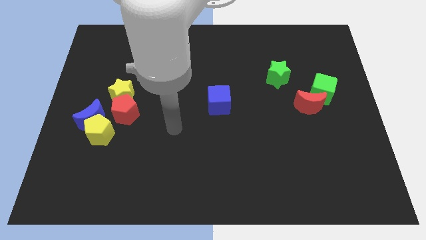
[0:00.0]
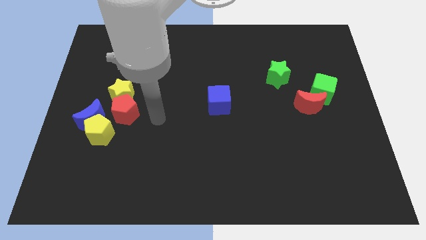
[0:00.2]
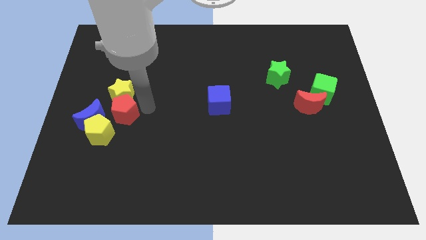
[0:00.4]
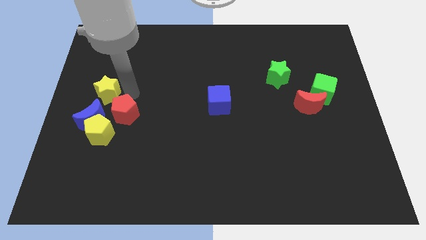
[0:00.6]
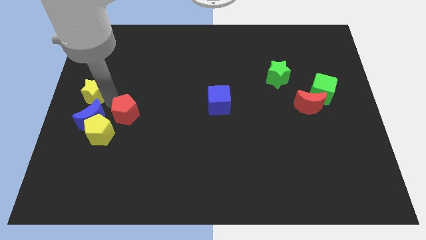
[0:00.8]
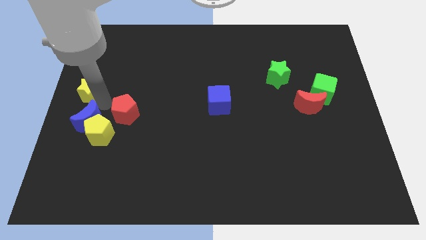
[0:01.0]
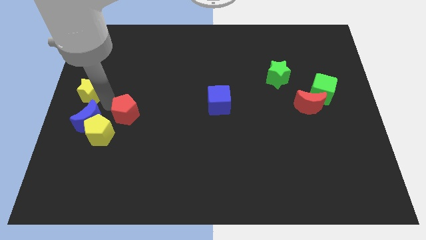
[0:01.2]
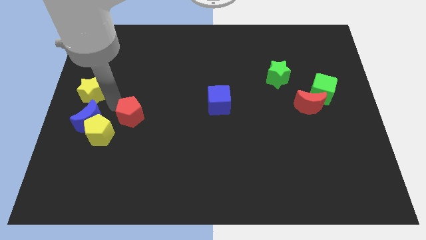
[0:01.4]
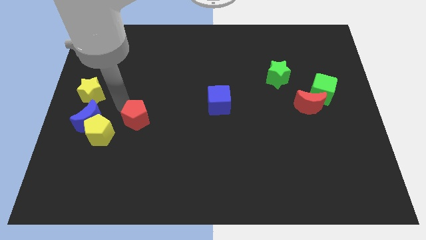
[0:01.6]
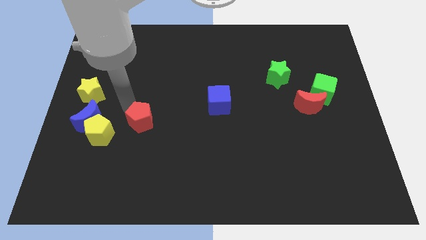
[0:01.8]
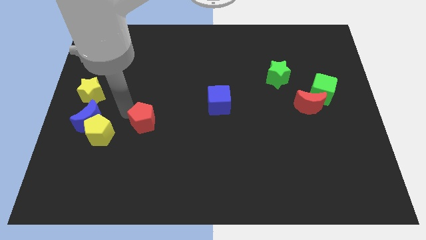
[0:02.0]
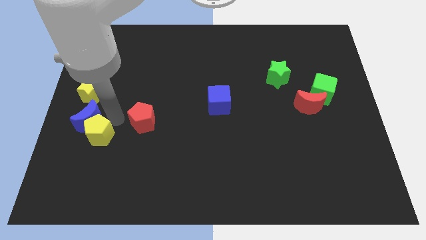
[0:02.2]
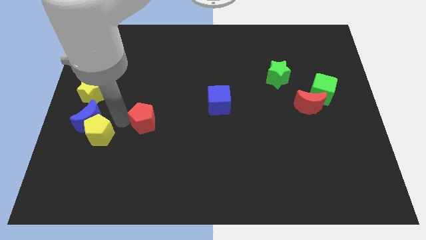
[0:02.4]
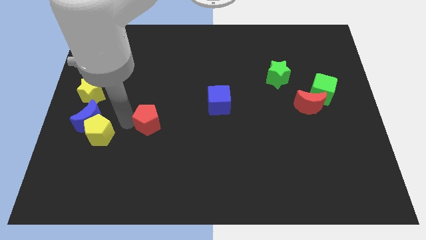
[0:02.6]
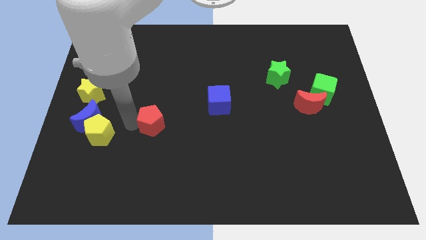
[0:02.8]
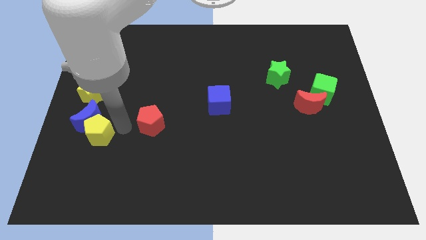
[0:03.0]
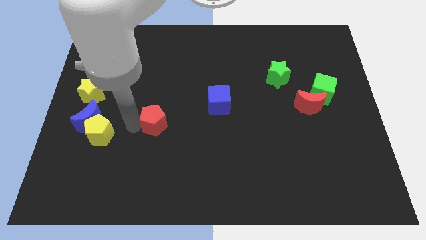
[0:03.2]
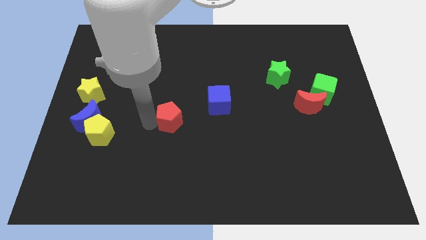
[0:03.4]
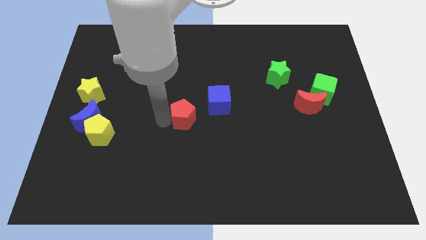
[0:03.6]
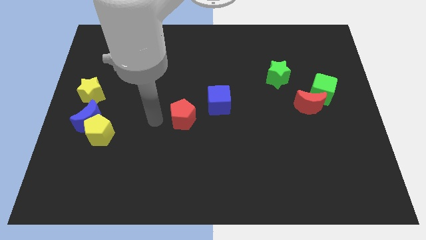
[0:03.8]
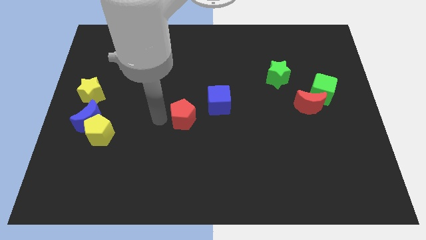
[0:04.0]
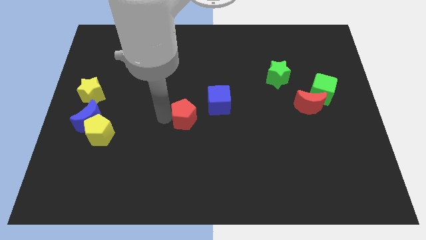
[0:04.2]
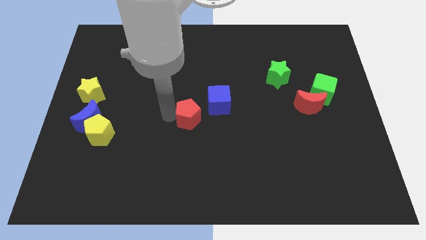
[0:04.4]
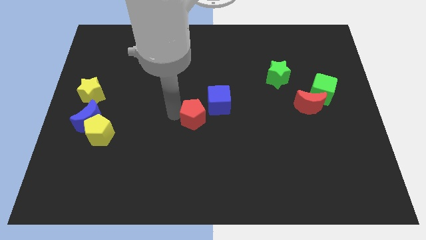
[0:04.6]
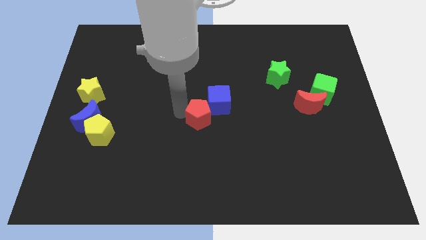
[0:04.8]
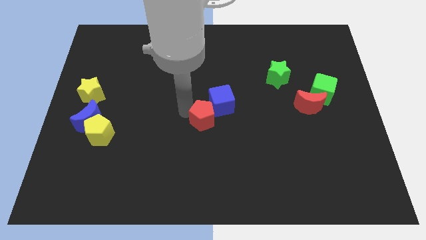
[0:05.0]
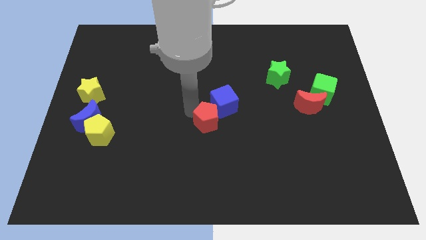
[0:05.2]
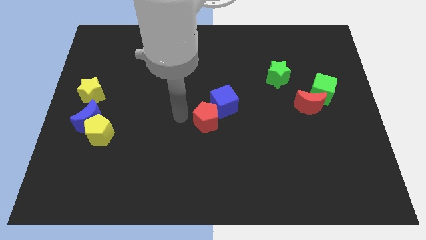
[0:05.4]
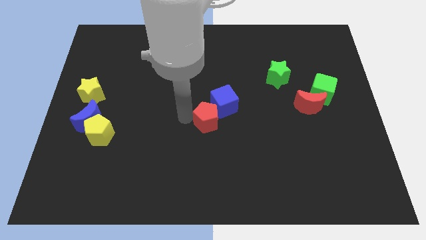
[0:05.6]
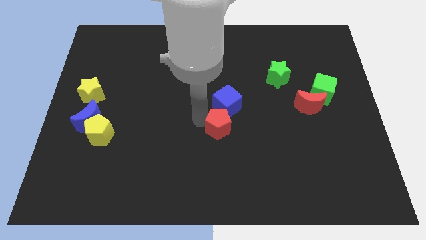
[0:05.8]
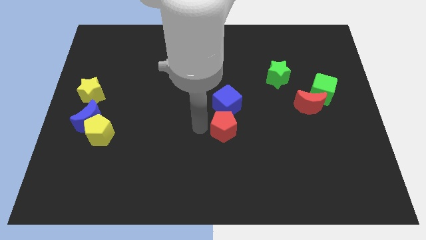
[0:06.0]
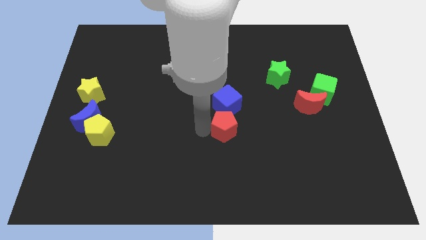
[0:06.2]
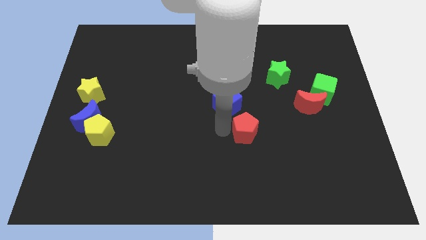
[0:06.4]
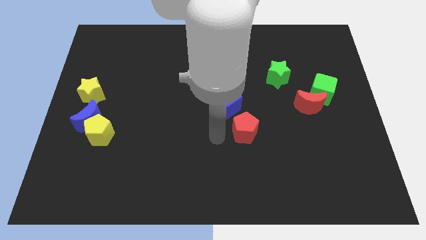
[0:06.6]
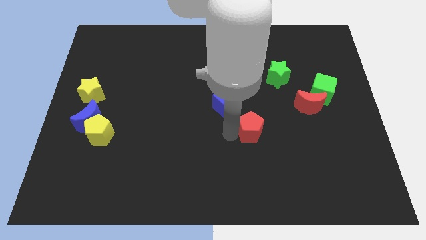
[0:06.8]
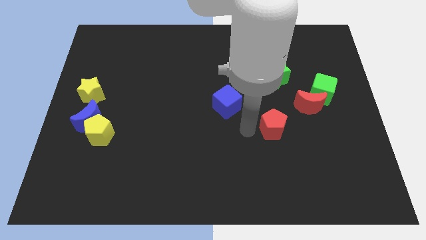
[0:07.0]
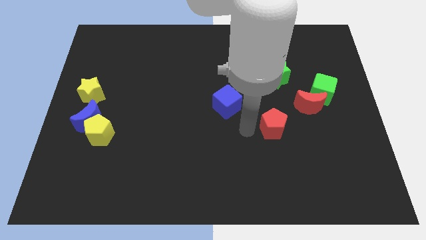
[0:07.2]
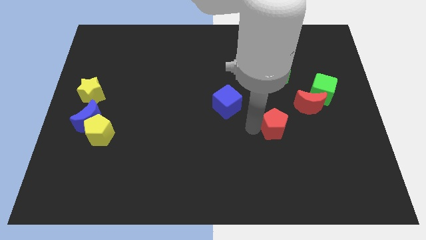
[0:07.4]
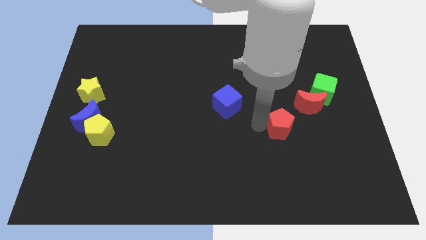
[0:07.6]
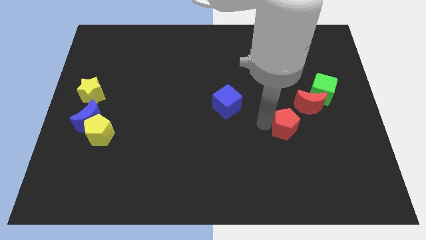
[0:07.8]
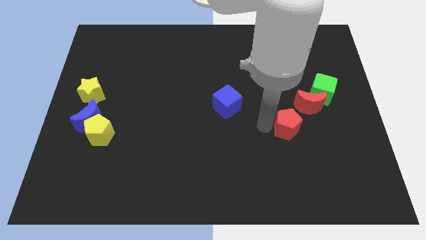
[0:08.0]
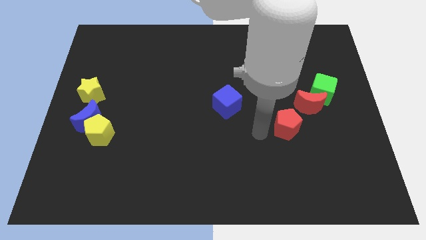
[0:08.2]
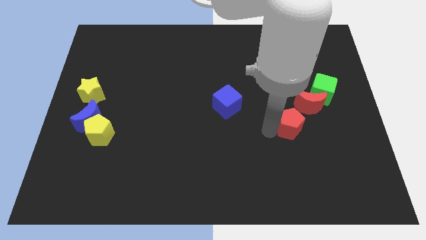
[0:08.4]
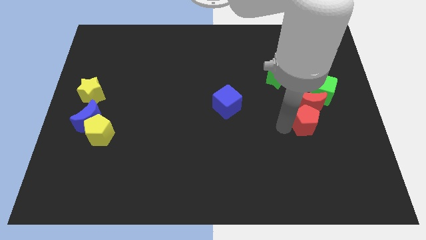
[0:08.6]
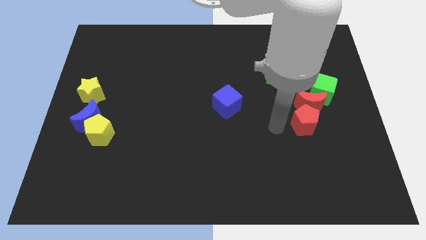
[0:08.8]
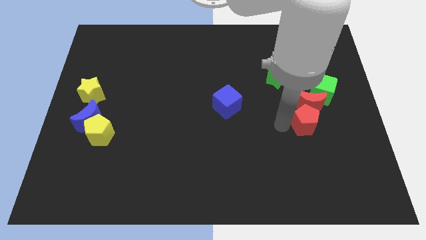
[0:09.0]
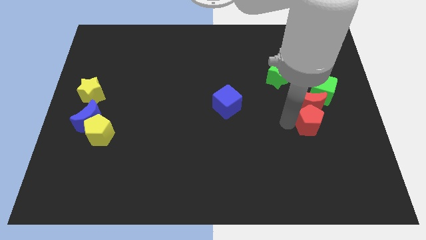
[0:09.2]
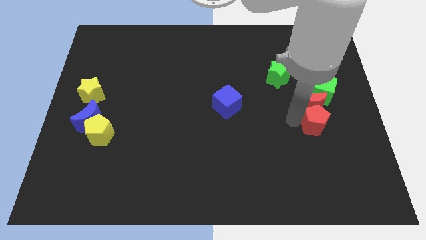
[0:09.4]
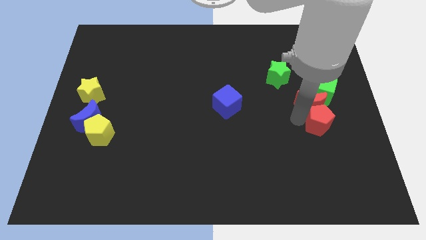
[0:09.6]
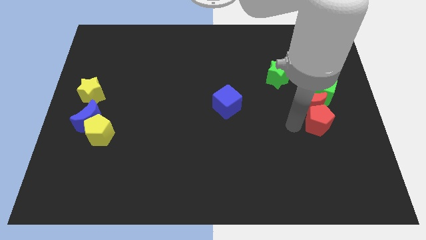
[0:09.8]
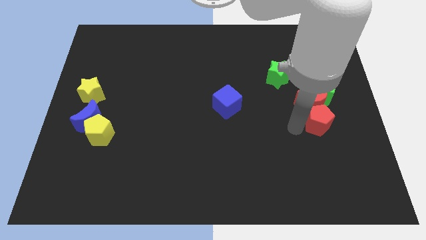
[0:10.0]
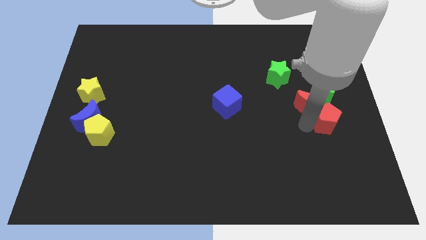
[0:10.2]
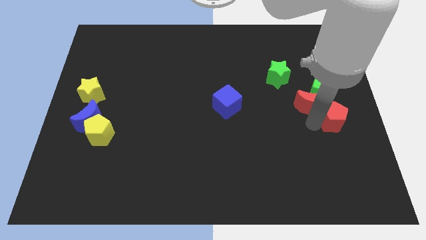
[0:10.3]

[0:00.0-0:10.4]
push the red pentagon to the right side

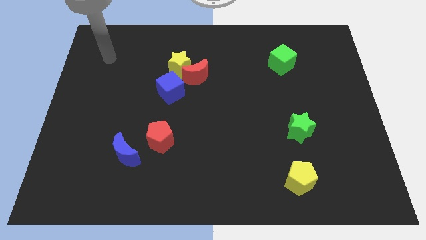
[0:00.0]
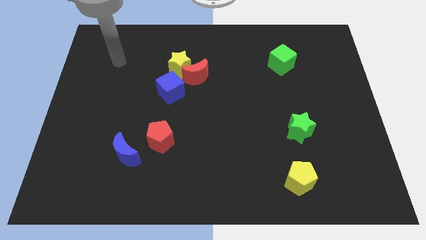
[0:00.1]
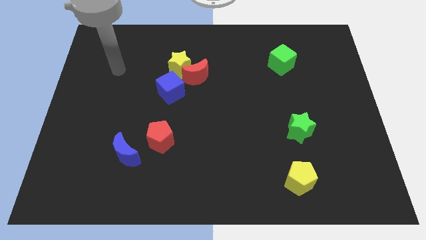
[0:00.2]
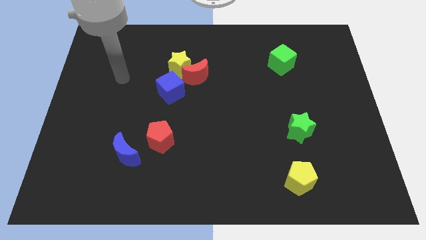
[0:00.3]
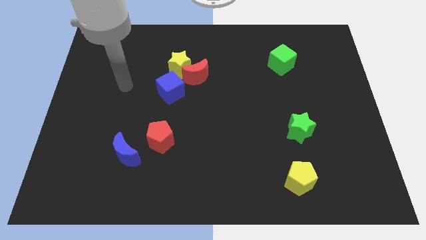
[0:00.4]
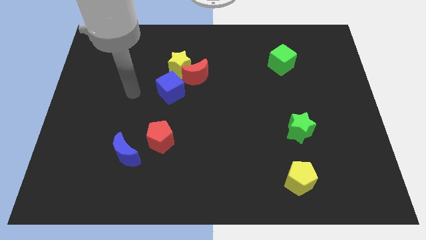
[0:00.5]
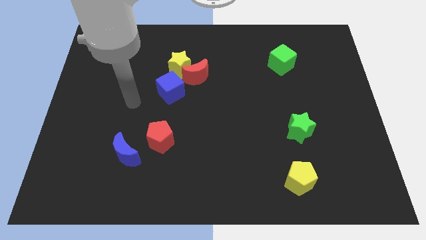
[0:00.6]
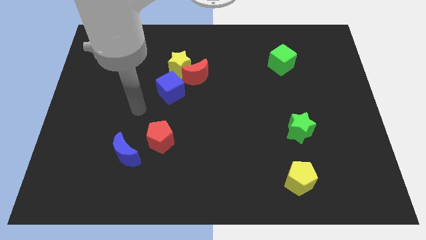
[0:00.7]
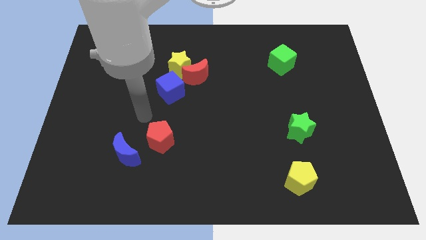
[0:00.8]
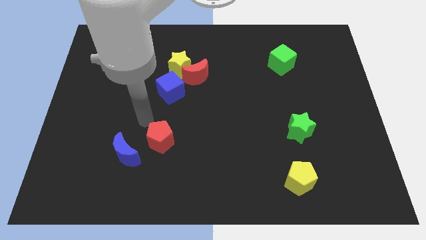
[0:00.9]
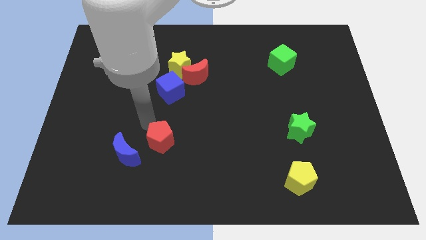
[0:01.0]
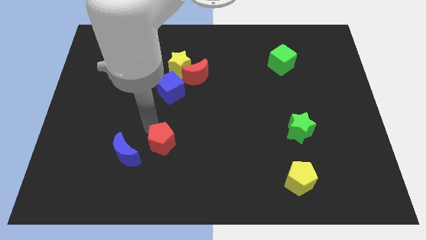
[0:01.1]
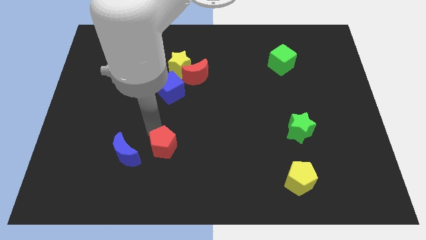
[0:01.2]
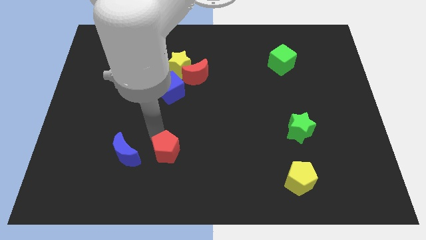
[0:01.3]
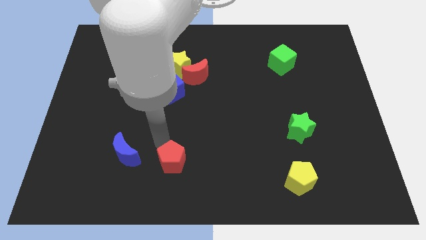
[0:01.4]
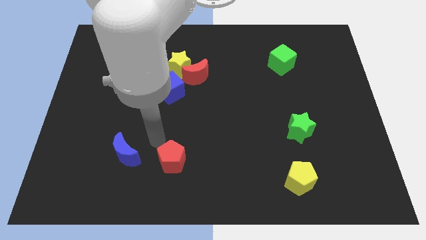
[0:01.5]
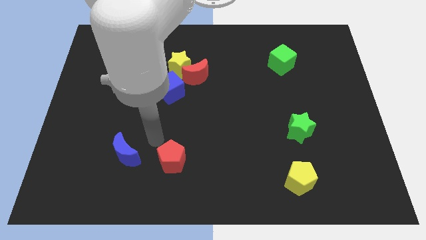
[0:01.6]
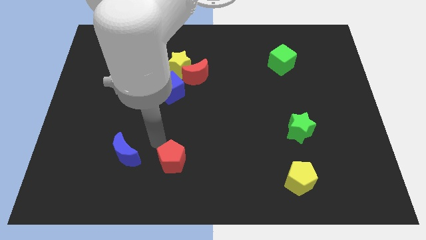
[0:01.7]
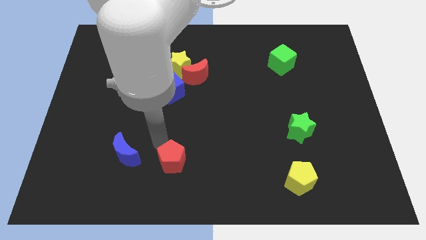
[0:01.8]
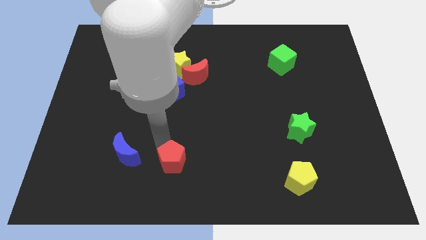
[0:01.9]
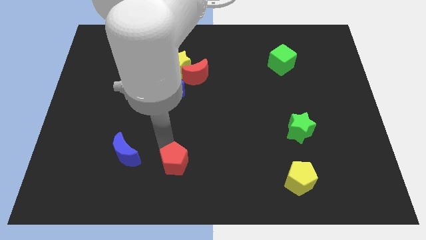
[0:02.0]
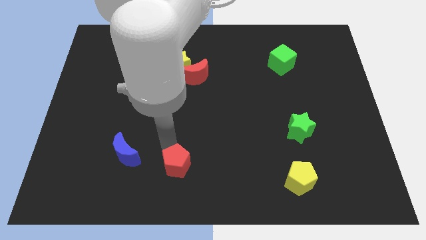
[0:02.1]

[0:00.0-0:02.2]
slide the red pentagon to the bottom
